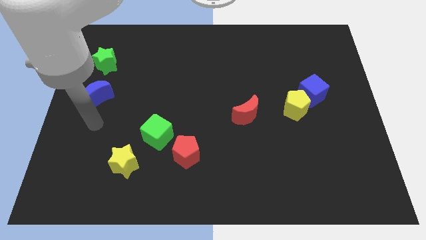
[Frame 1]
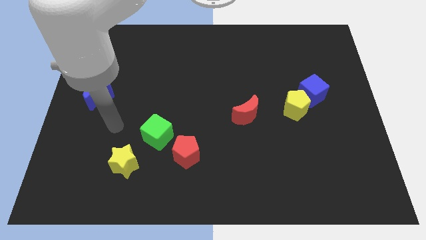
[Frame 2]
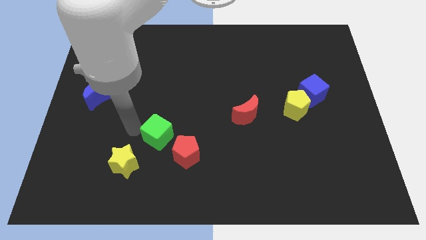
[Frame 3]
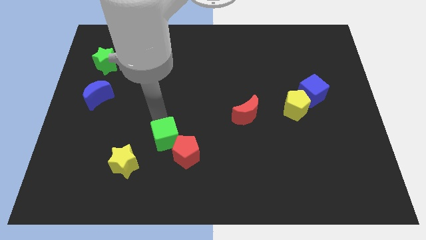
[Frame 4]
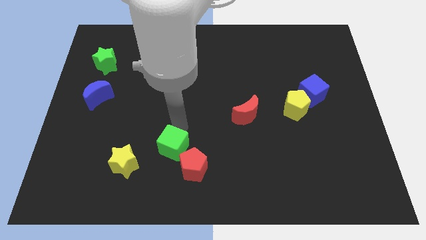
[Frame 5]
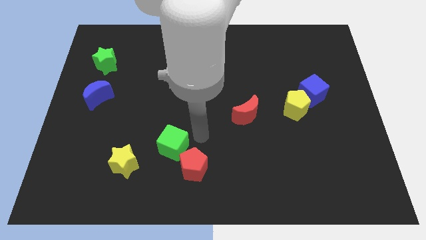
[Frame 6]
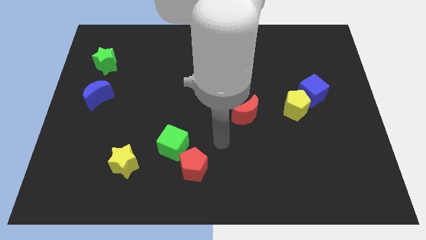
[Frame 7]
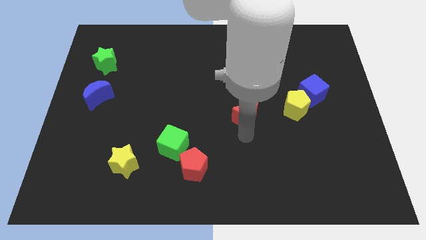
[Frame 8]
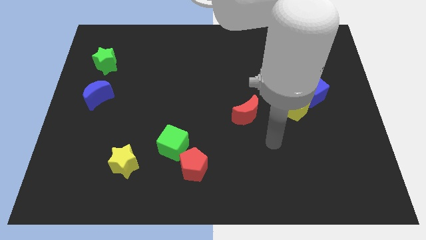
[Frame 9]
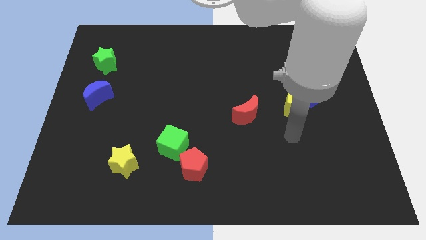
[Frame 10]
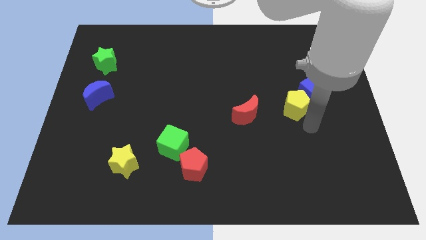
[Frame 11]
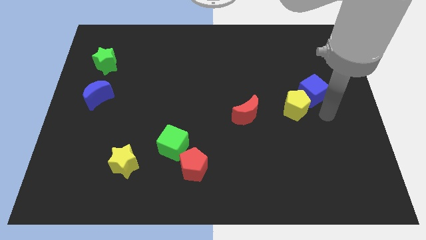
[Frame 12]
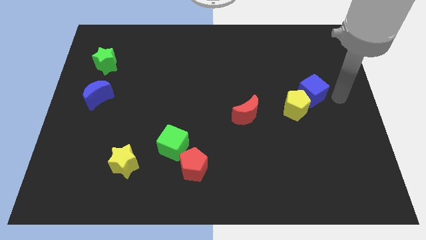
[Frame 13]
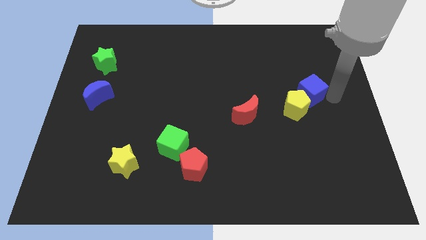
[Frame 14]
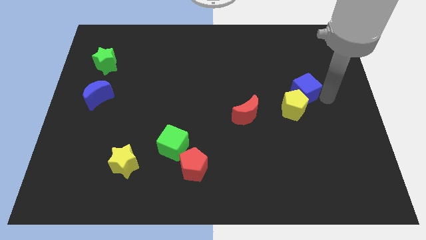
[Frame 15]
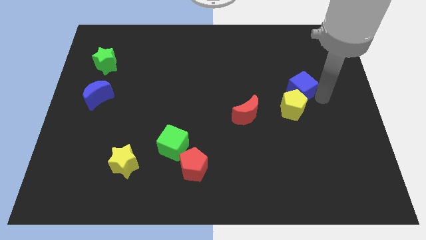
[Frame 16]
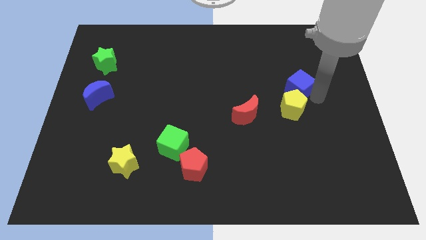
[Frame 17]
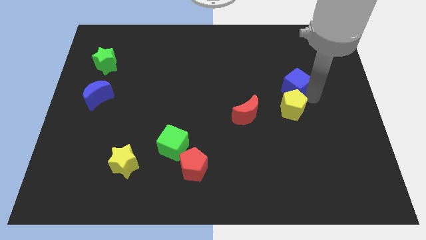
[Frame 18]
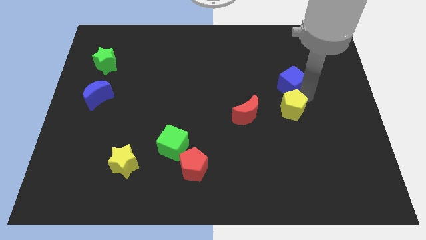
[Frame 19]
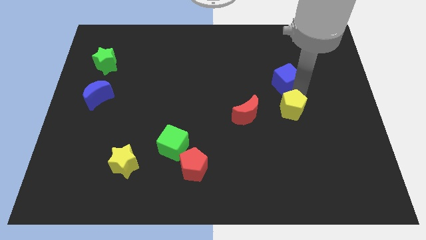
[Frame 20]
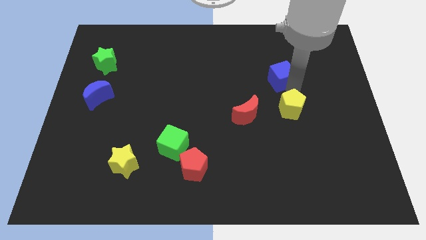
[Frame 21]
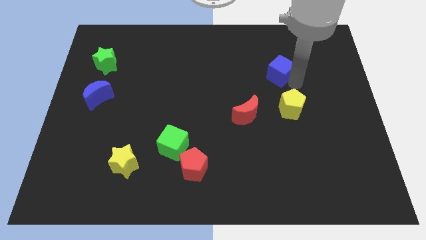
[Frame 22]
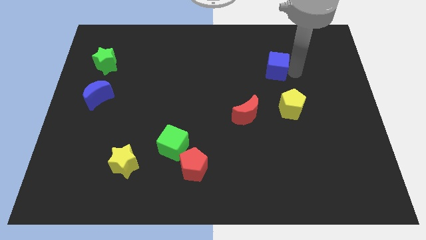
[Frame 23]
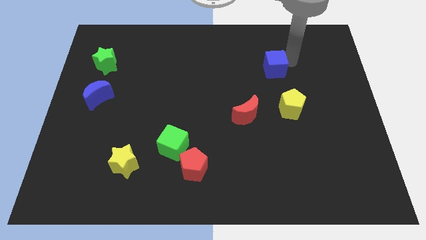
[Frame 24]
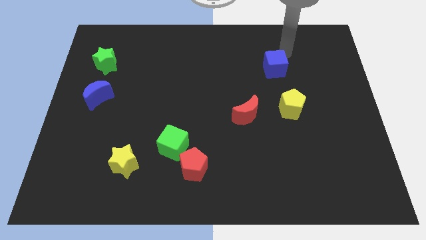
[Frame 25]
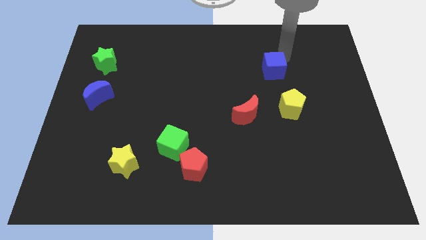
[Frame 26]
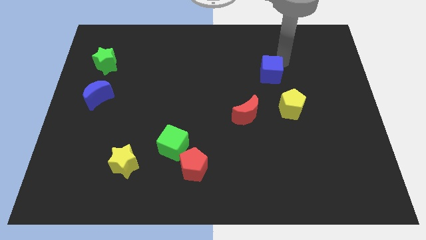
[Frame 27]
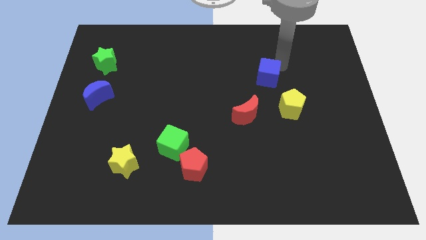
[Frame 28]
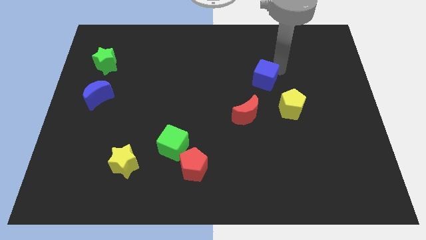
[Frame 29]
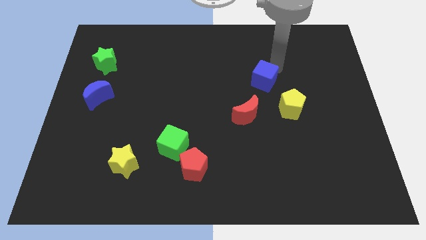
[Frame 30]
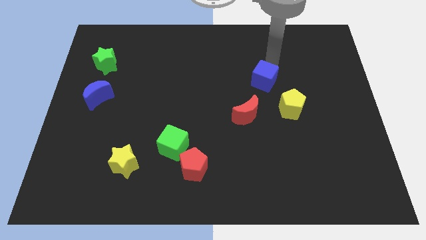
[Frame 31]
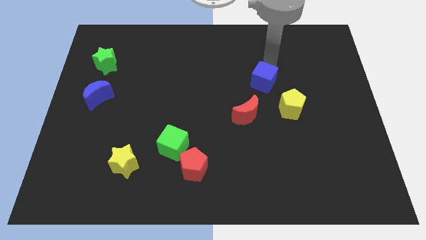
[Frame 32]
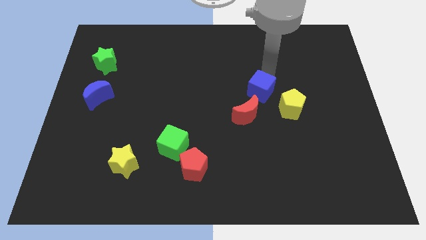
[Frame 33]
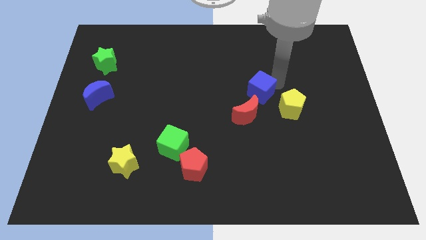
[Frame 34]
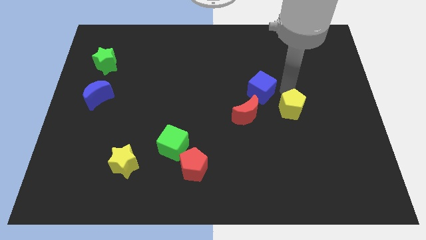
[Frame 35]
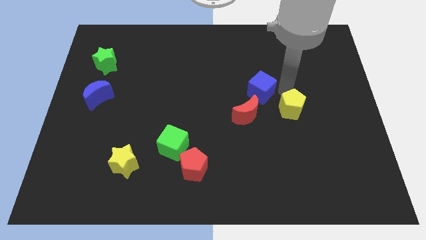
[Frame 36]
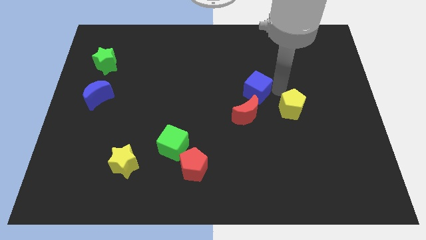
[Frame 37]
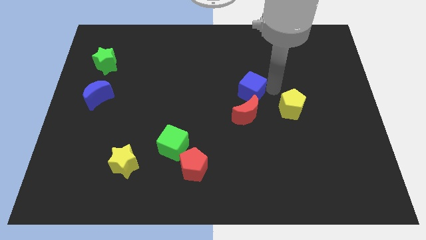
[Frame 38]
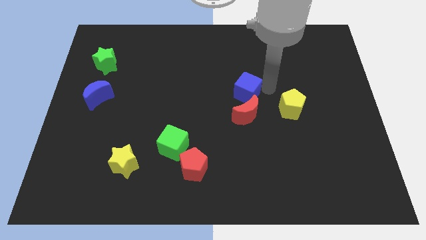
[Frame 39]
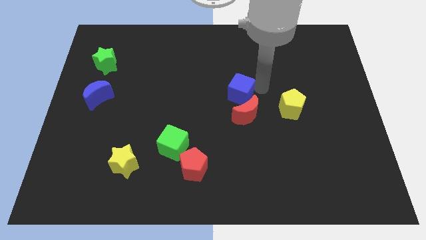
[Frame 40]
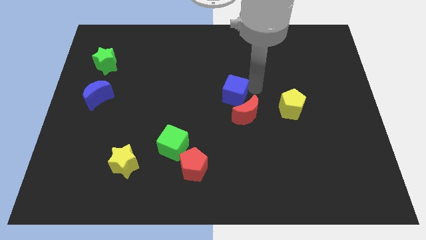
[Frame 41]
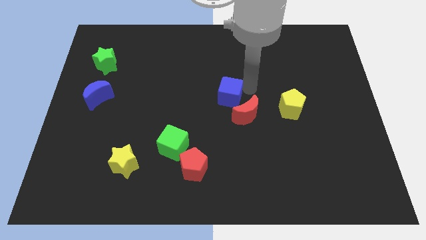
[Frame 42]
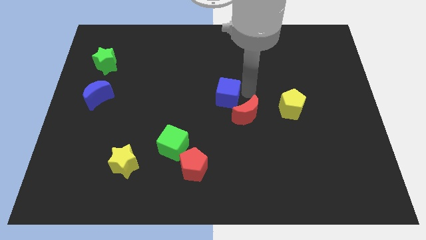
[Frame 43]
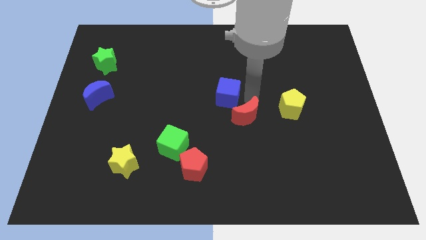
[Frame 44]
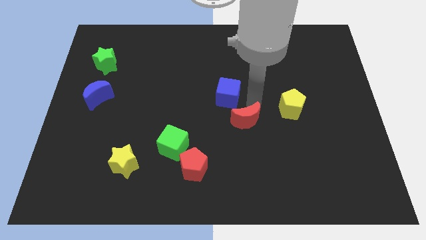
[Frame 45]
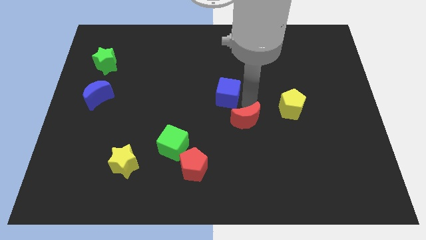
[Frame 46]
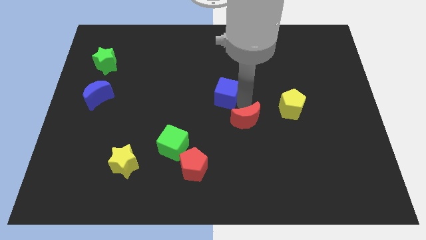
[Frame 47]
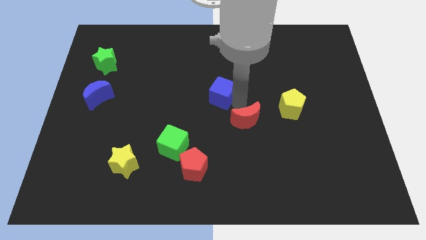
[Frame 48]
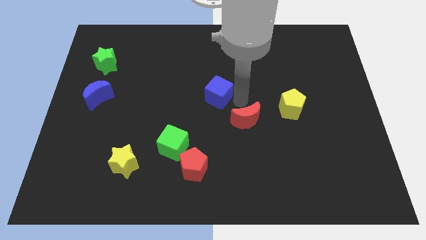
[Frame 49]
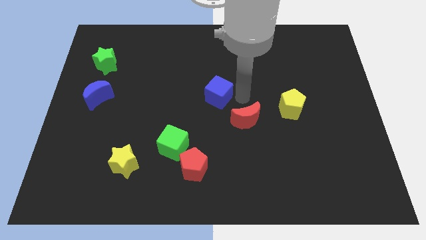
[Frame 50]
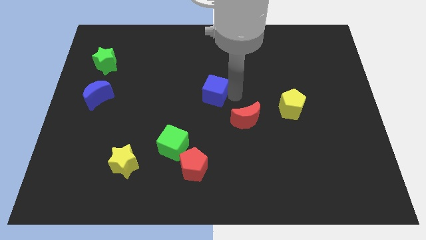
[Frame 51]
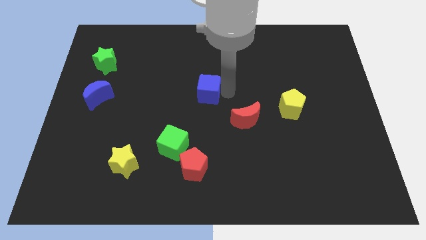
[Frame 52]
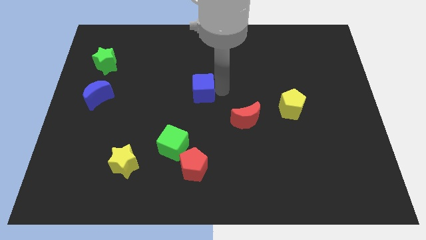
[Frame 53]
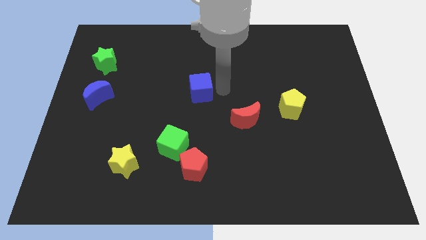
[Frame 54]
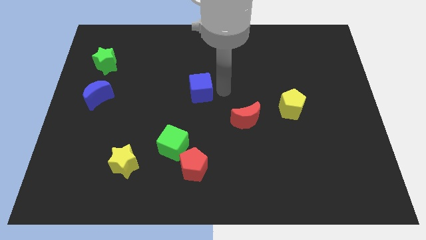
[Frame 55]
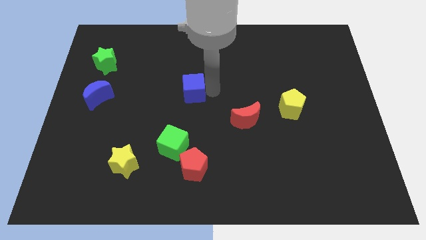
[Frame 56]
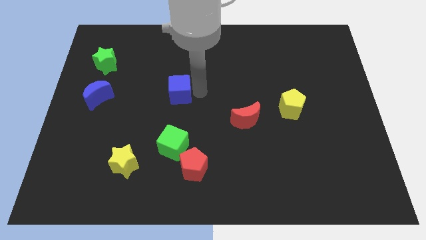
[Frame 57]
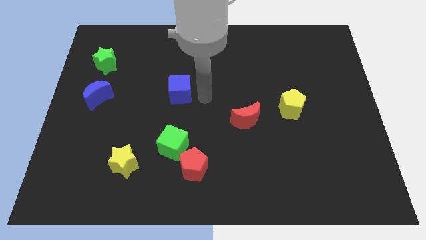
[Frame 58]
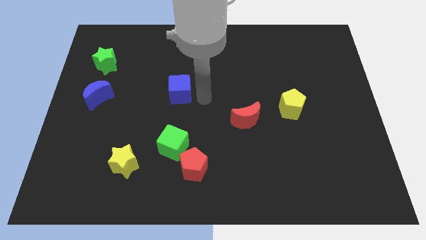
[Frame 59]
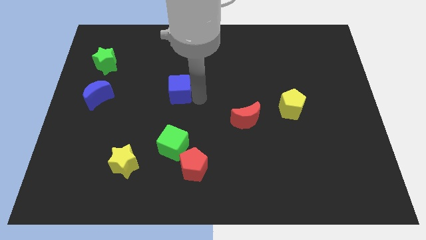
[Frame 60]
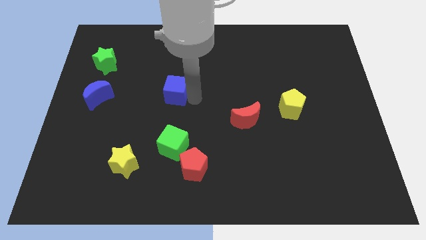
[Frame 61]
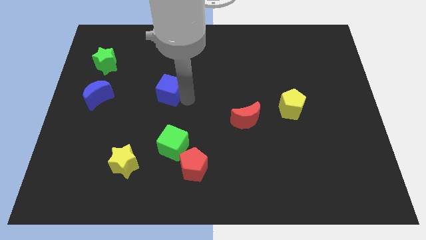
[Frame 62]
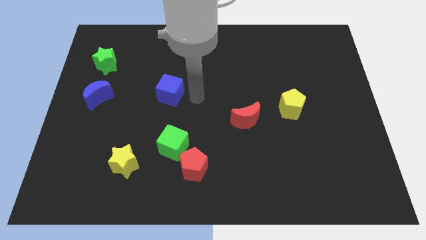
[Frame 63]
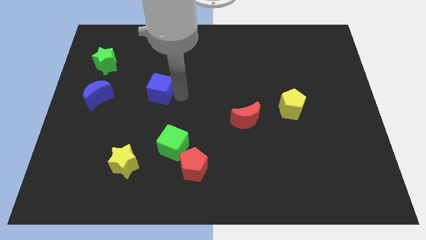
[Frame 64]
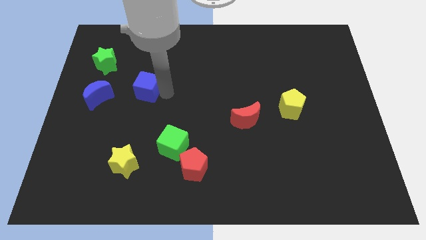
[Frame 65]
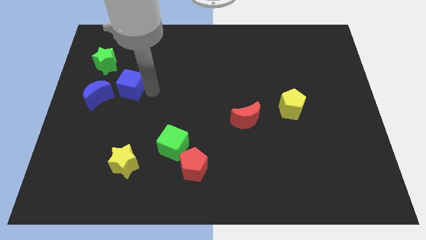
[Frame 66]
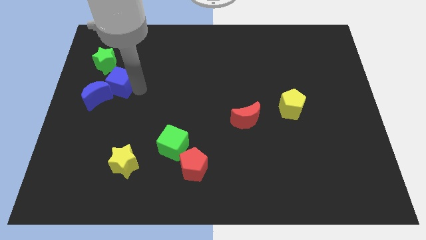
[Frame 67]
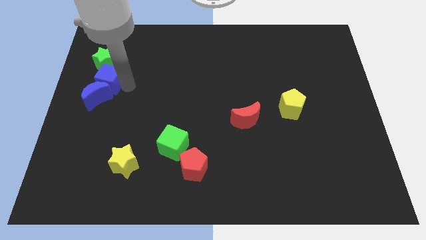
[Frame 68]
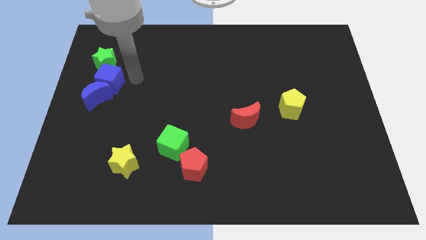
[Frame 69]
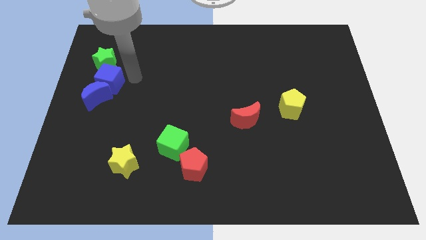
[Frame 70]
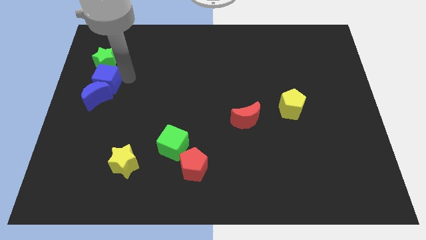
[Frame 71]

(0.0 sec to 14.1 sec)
move the blue cube to the left side
